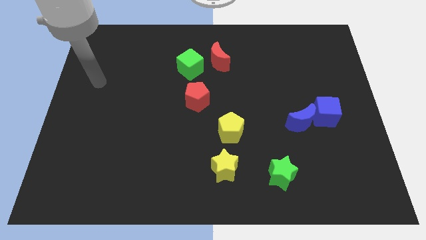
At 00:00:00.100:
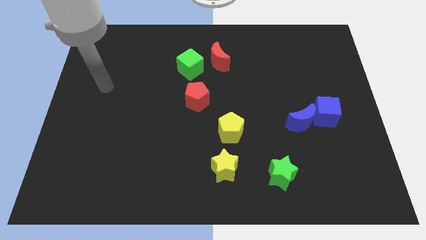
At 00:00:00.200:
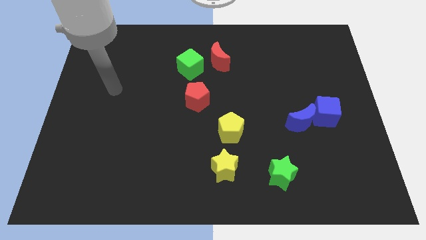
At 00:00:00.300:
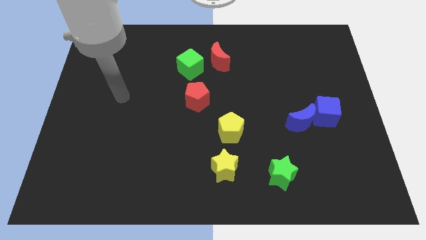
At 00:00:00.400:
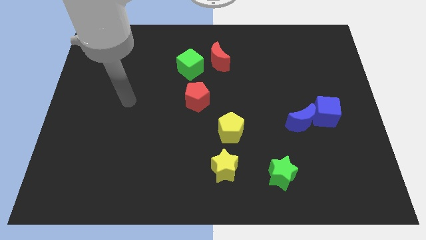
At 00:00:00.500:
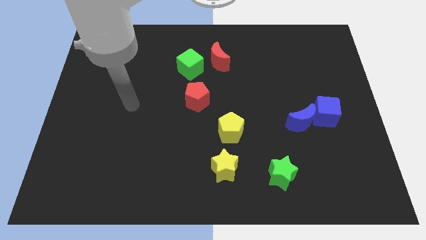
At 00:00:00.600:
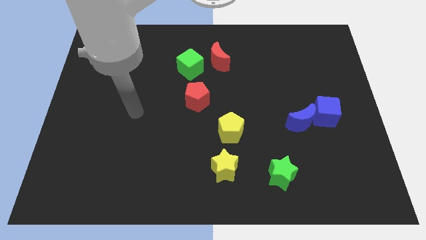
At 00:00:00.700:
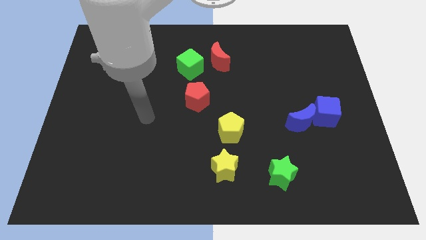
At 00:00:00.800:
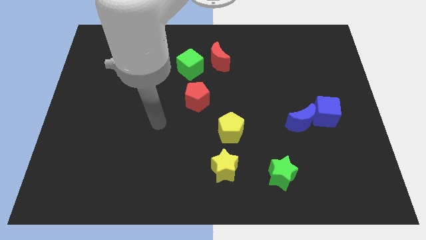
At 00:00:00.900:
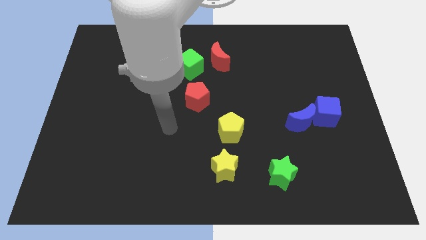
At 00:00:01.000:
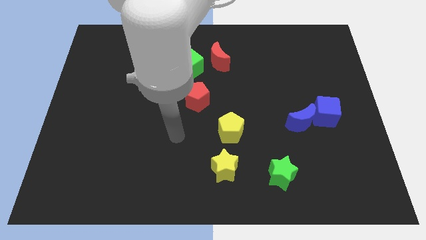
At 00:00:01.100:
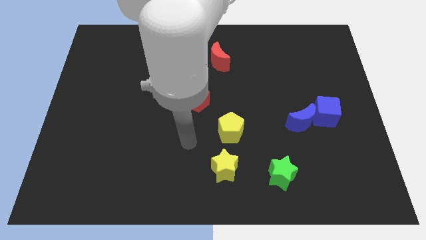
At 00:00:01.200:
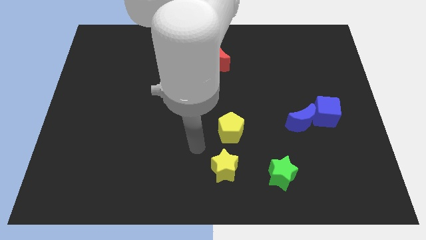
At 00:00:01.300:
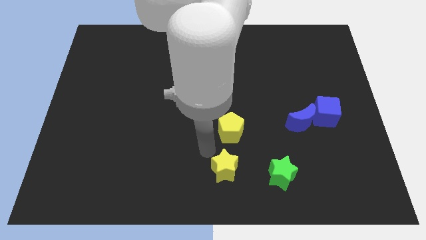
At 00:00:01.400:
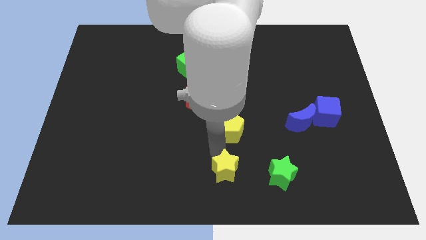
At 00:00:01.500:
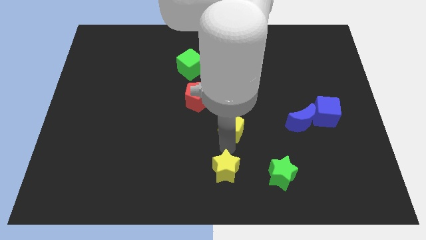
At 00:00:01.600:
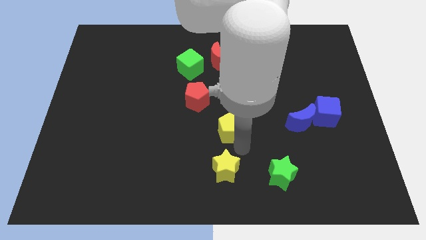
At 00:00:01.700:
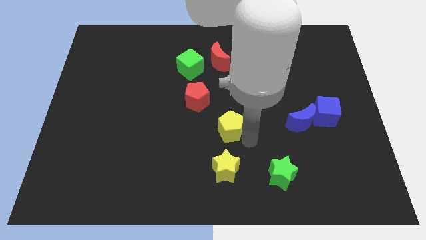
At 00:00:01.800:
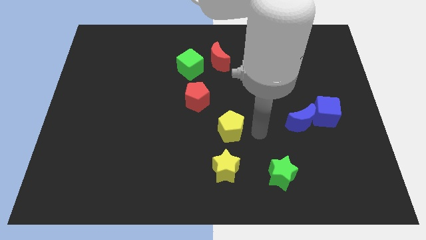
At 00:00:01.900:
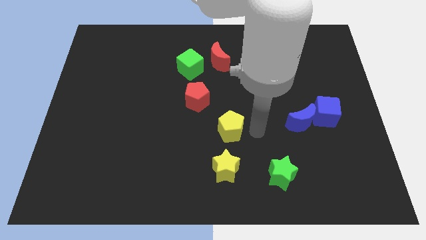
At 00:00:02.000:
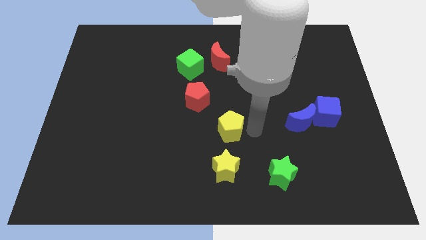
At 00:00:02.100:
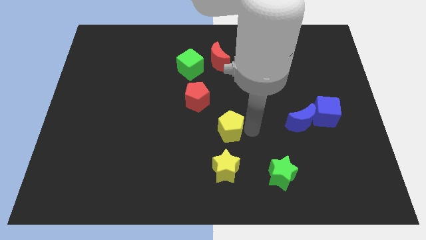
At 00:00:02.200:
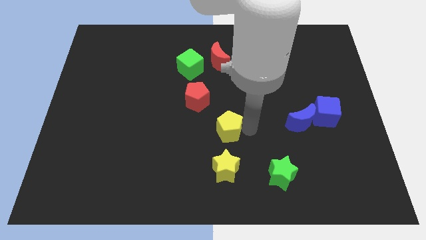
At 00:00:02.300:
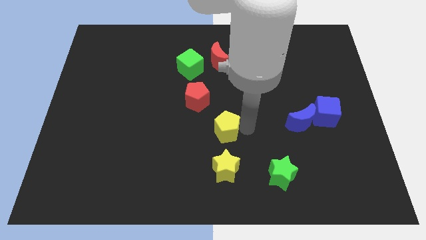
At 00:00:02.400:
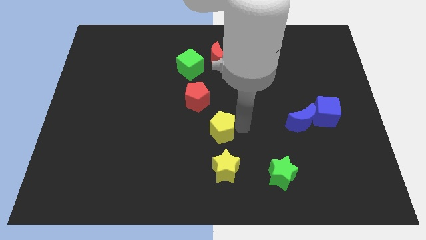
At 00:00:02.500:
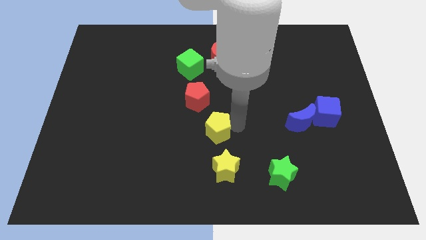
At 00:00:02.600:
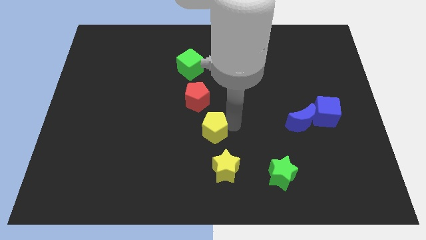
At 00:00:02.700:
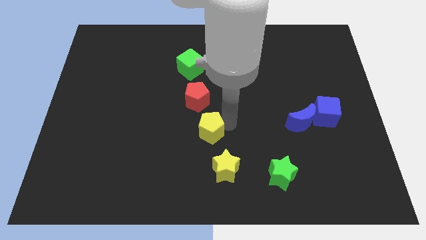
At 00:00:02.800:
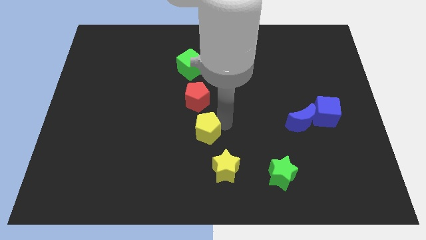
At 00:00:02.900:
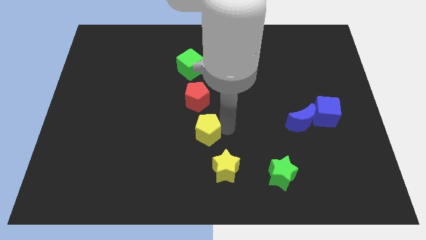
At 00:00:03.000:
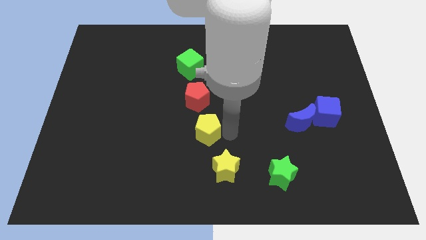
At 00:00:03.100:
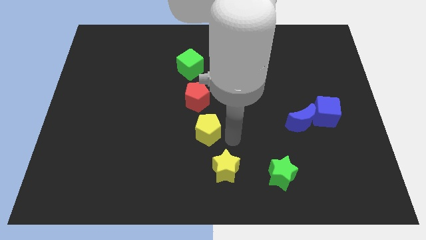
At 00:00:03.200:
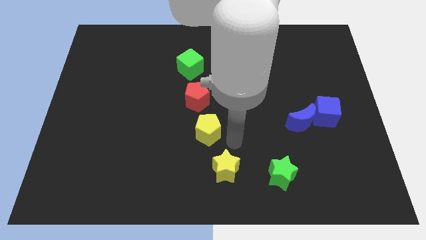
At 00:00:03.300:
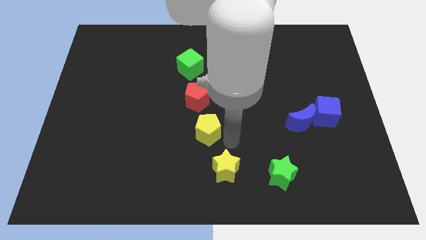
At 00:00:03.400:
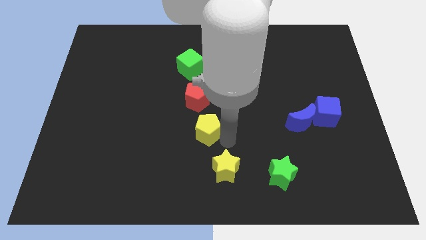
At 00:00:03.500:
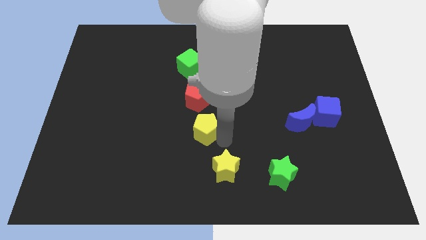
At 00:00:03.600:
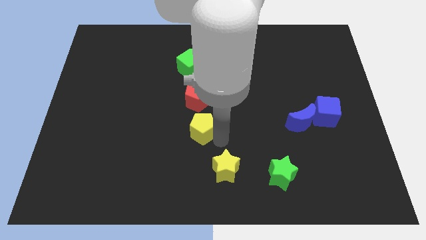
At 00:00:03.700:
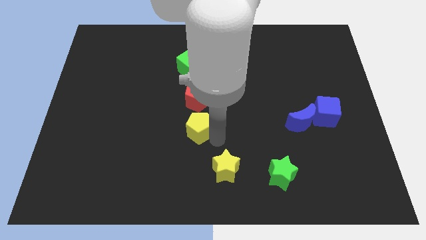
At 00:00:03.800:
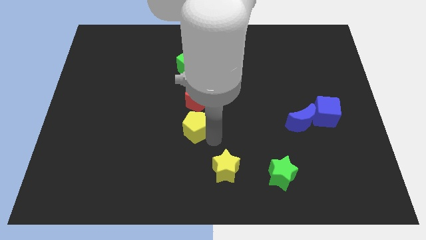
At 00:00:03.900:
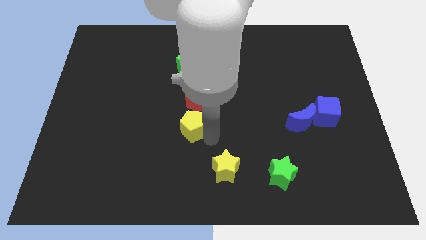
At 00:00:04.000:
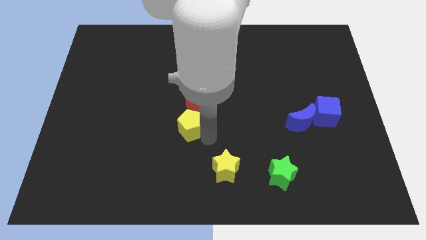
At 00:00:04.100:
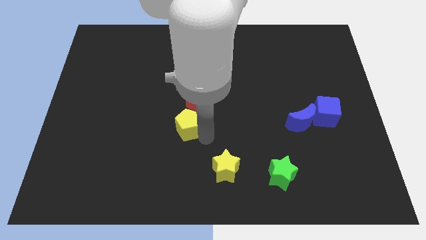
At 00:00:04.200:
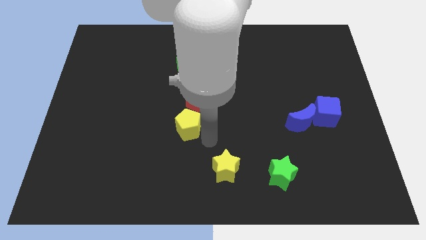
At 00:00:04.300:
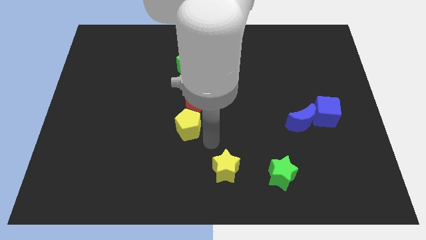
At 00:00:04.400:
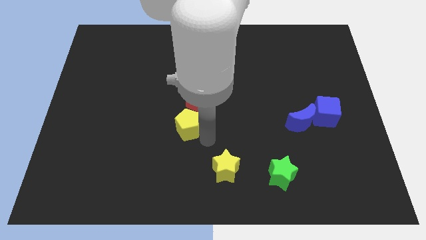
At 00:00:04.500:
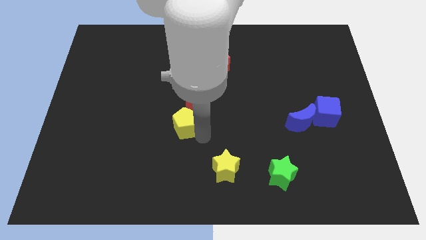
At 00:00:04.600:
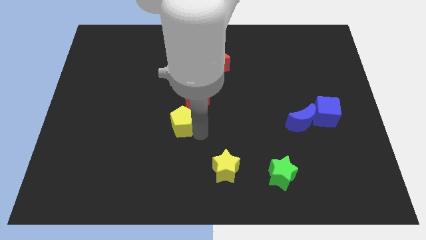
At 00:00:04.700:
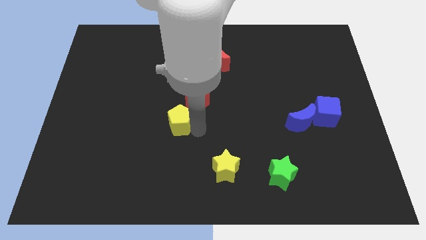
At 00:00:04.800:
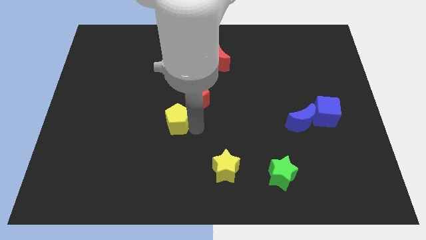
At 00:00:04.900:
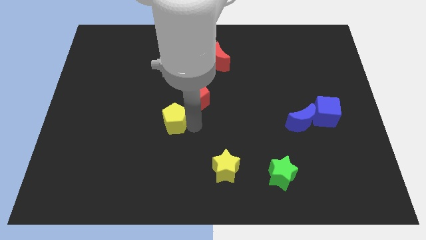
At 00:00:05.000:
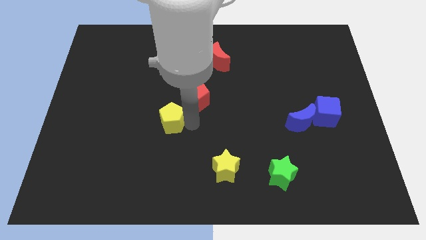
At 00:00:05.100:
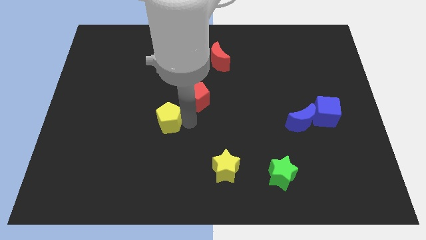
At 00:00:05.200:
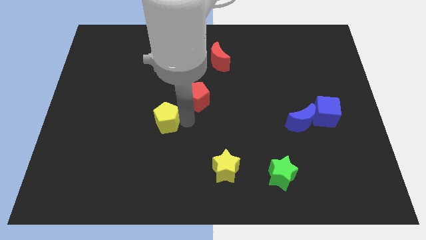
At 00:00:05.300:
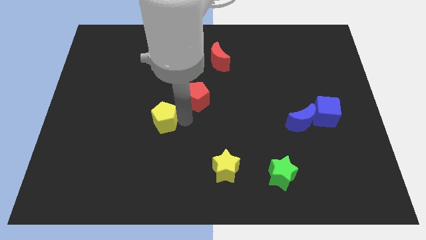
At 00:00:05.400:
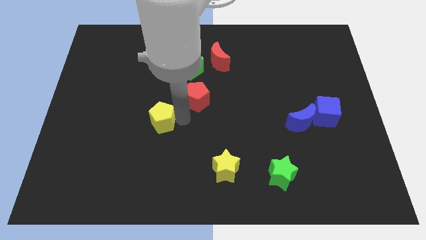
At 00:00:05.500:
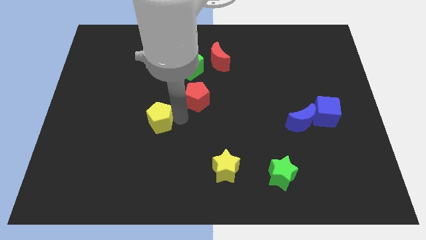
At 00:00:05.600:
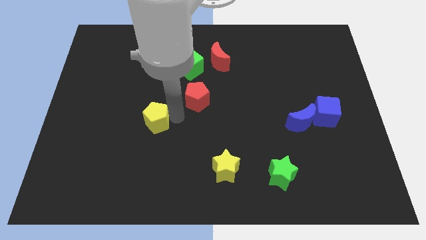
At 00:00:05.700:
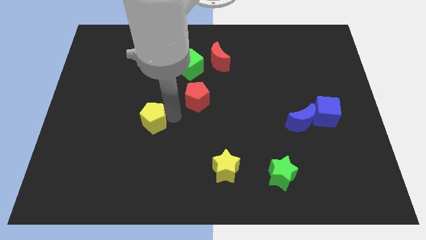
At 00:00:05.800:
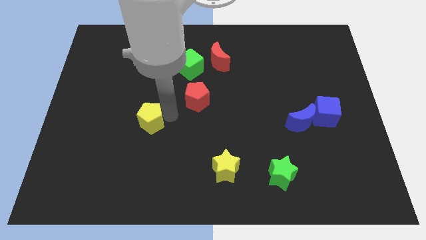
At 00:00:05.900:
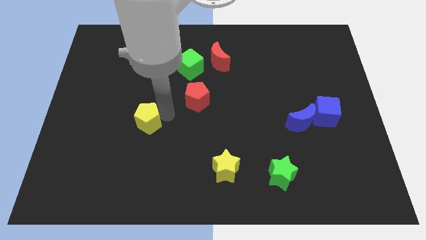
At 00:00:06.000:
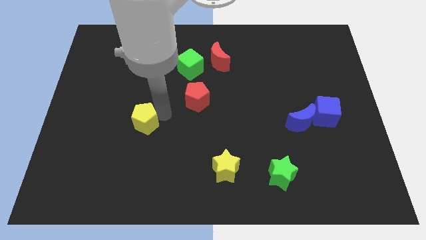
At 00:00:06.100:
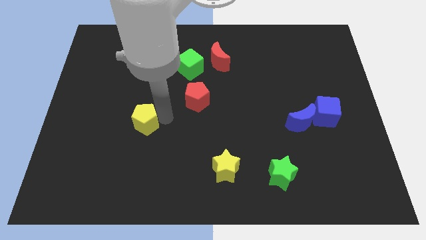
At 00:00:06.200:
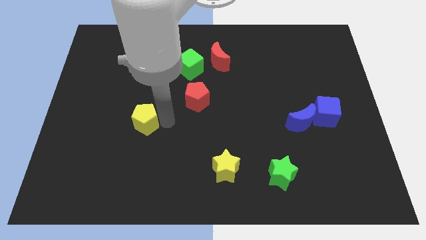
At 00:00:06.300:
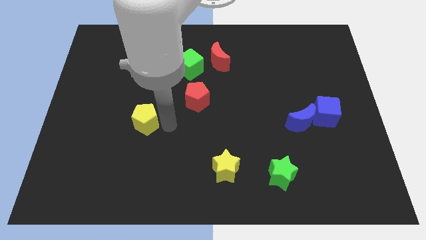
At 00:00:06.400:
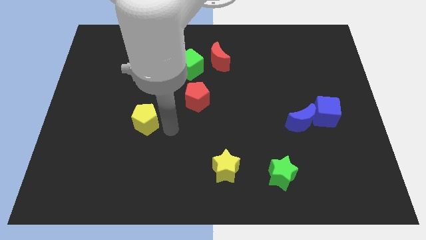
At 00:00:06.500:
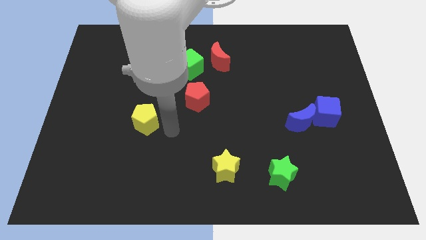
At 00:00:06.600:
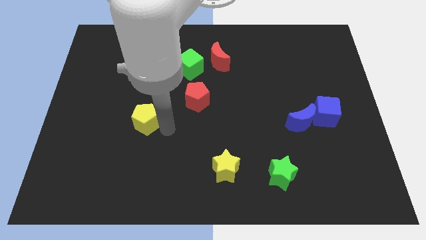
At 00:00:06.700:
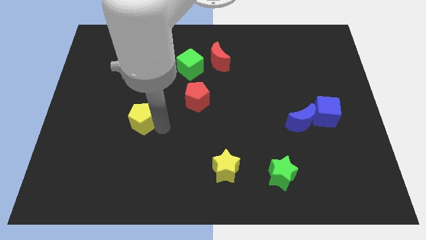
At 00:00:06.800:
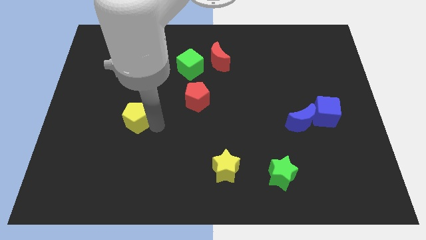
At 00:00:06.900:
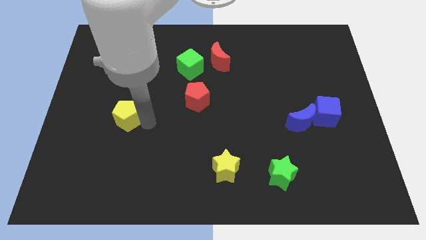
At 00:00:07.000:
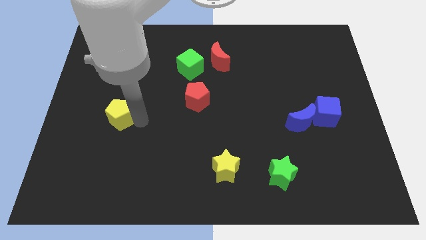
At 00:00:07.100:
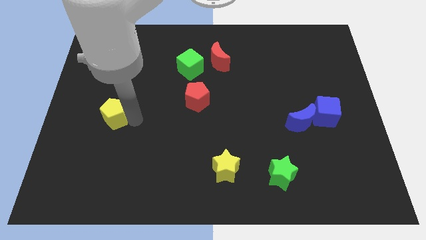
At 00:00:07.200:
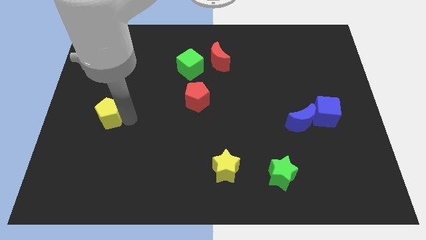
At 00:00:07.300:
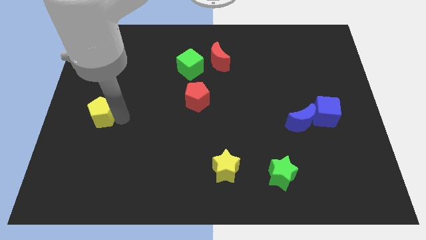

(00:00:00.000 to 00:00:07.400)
move the yellow pentagon to the left side
